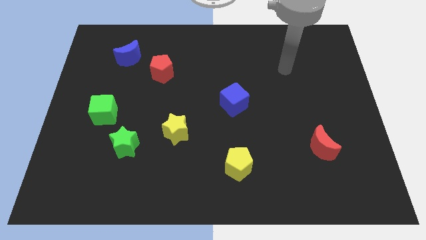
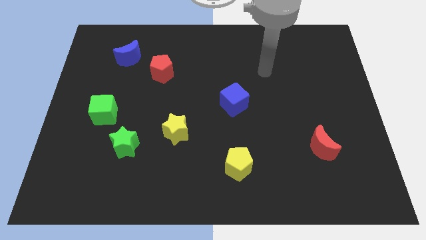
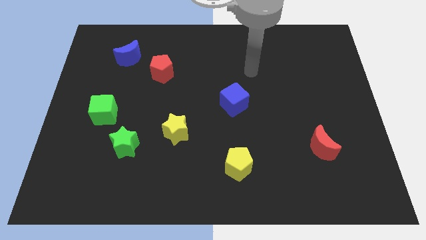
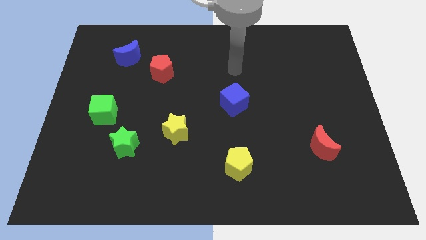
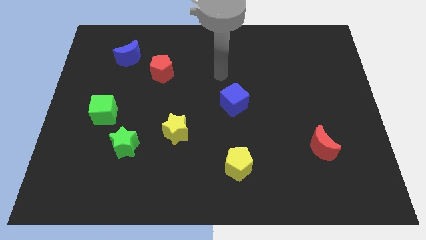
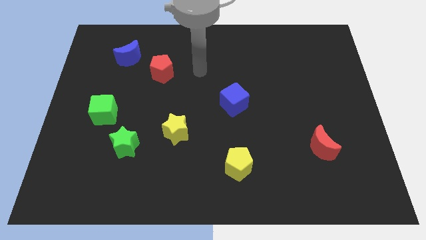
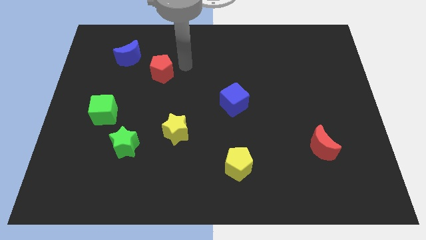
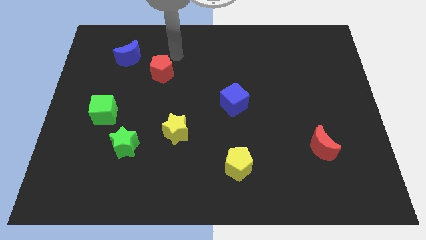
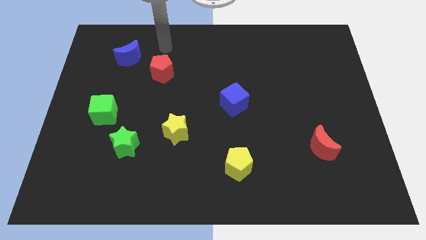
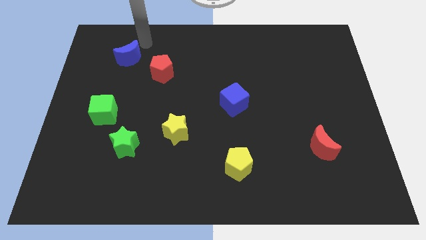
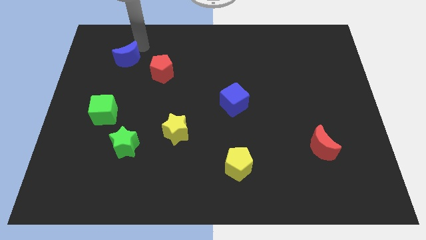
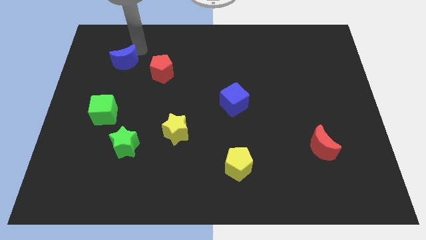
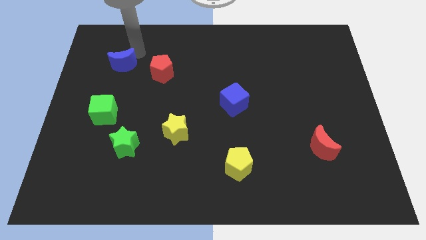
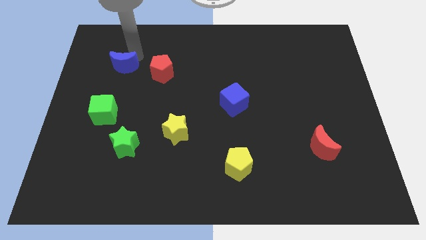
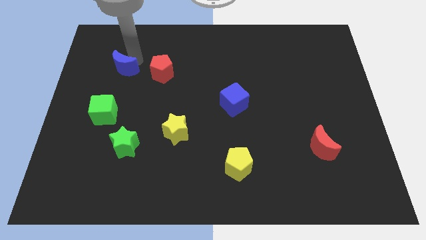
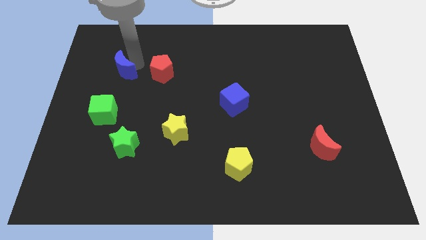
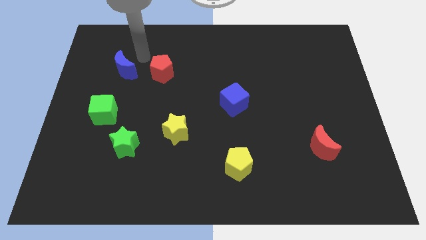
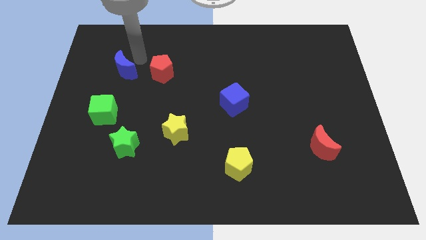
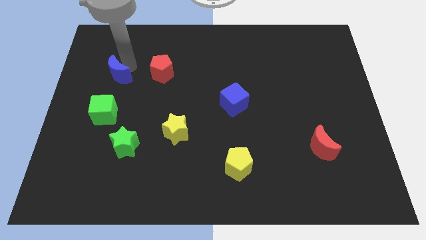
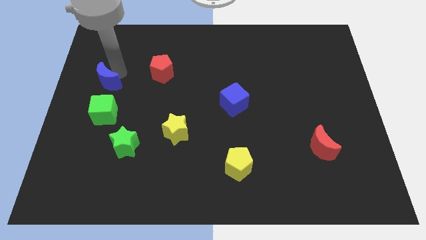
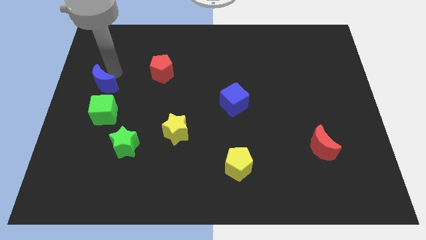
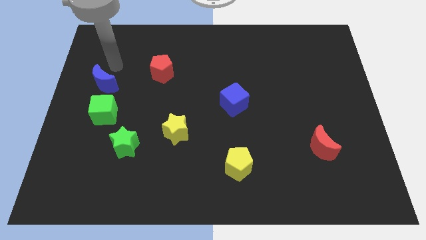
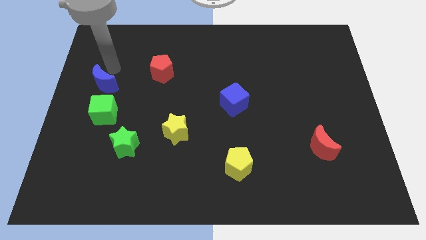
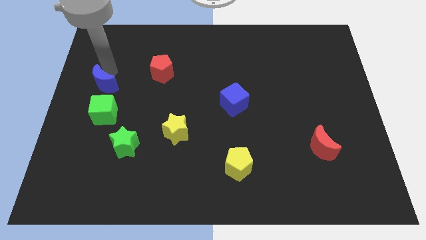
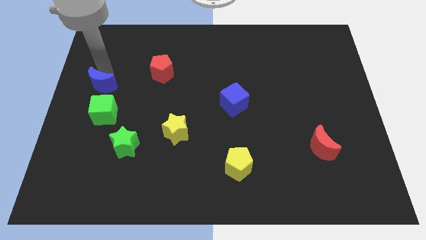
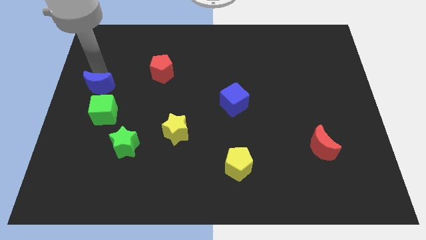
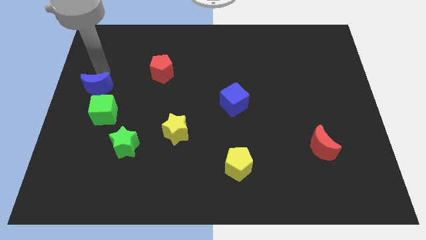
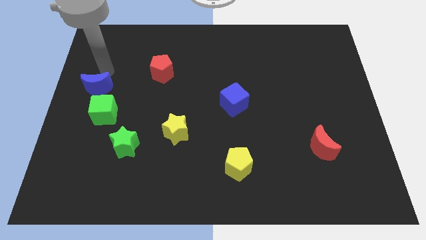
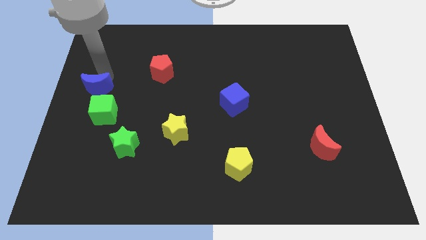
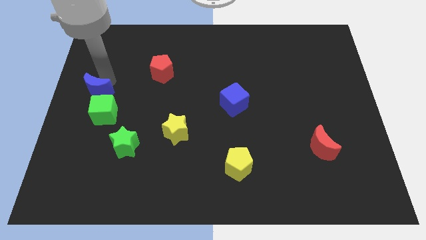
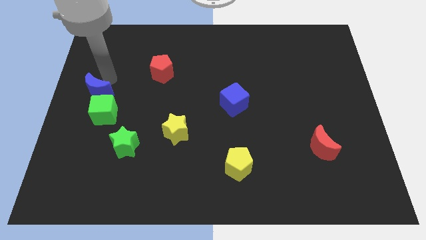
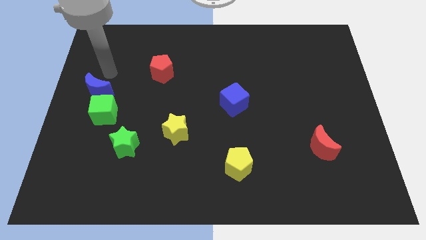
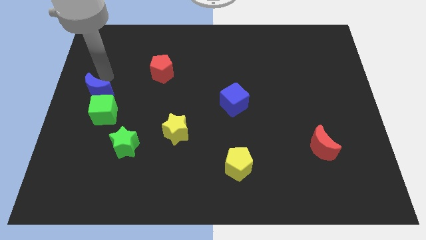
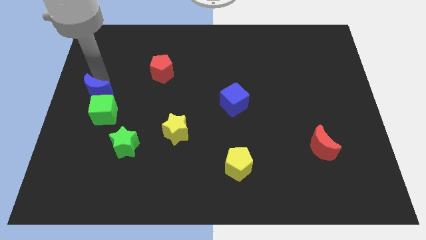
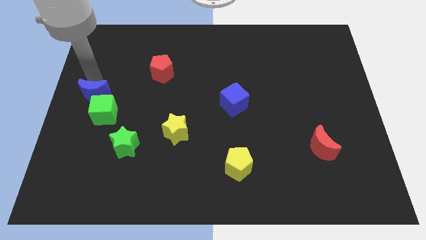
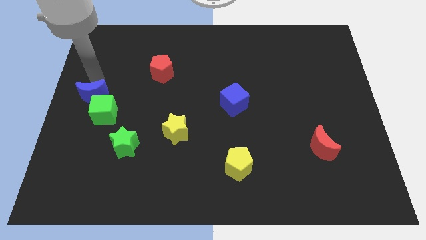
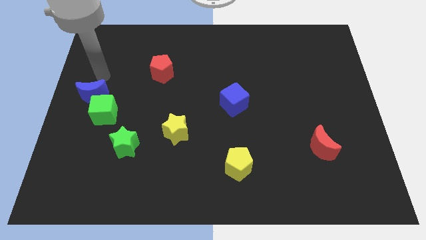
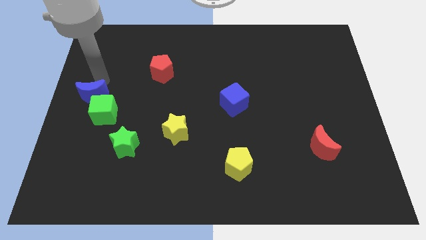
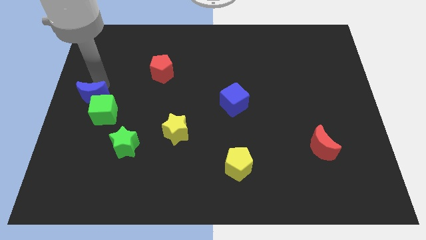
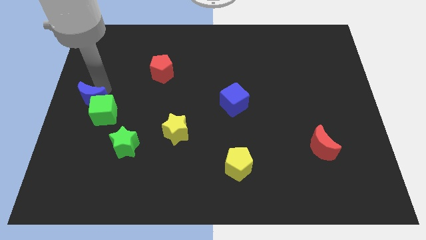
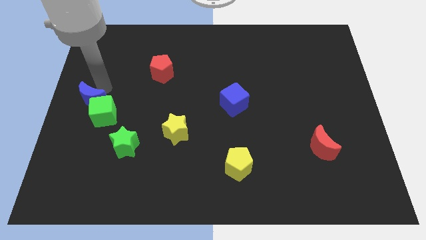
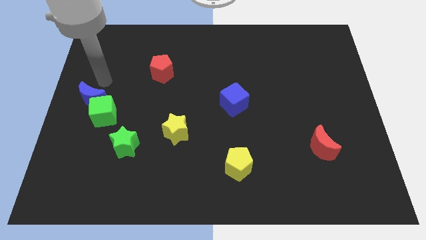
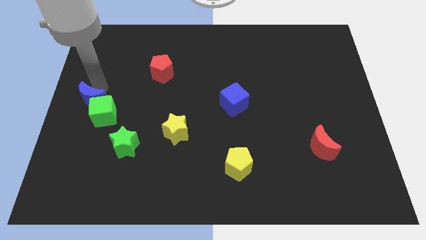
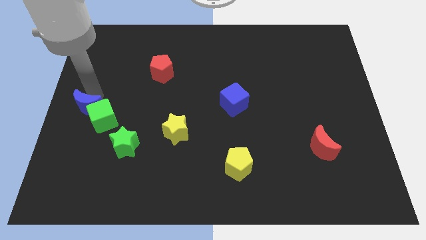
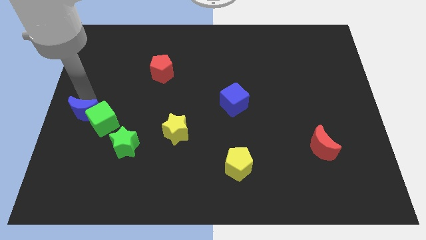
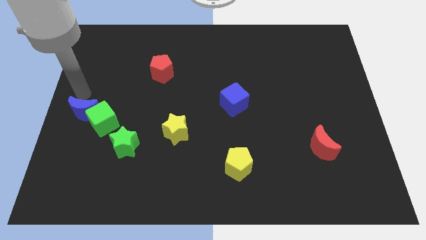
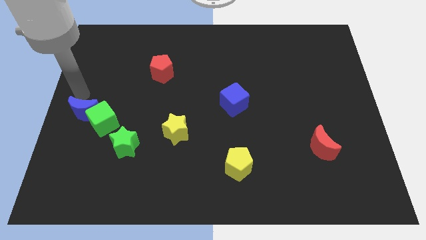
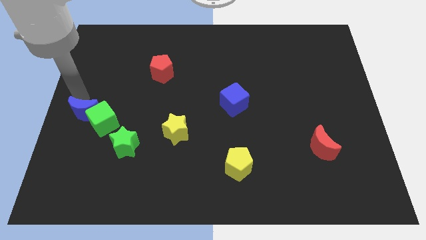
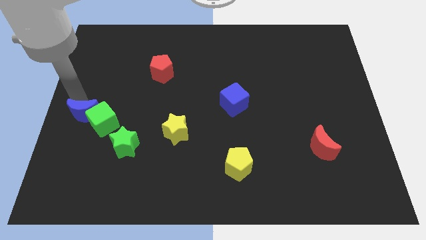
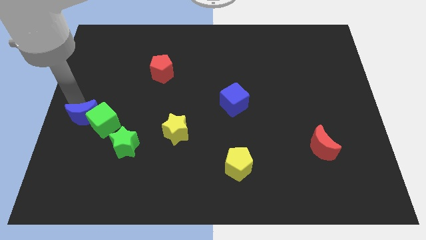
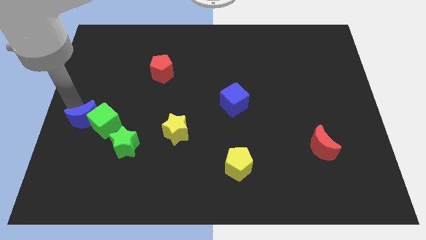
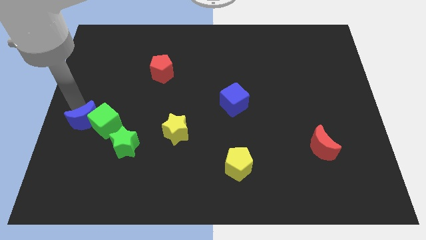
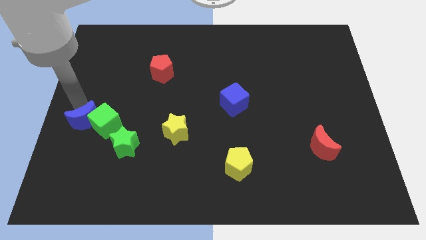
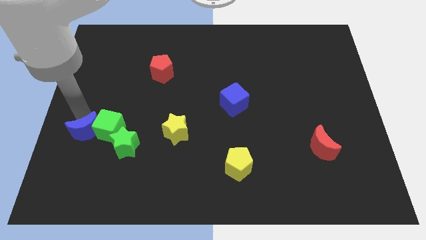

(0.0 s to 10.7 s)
move the blue moon downwards

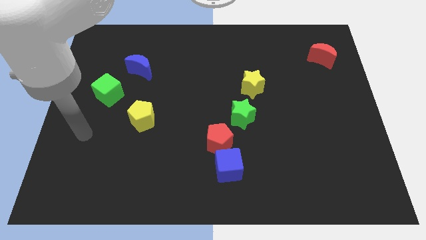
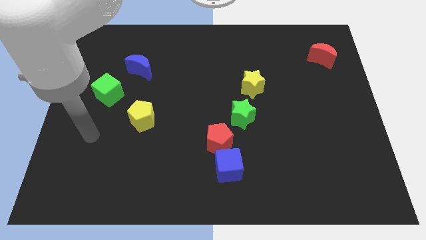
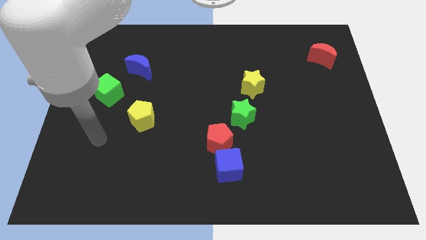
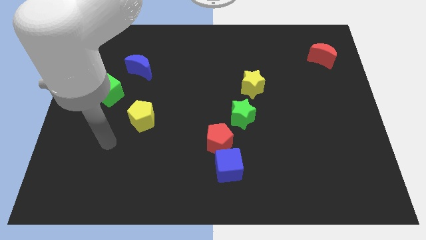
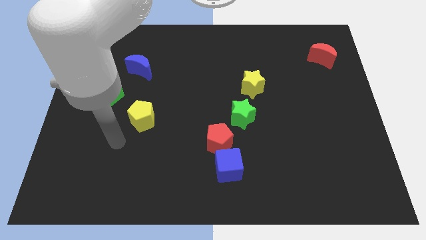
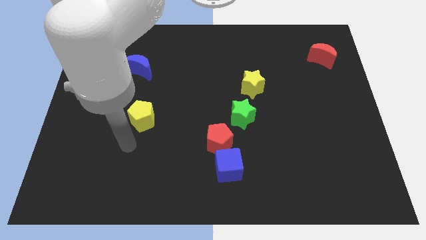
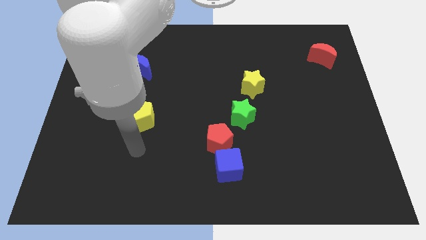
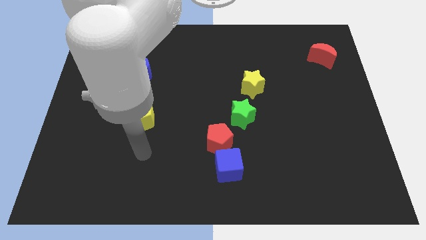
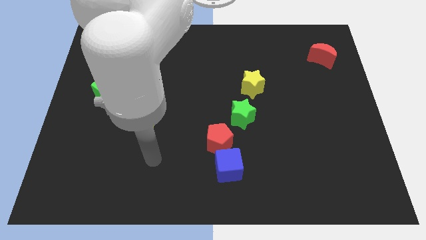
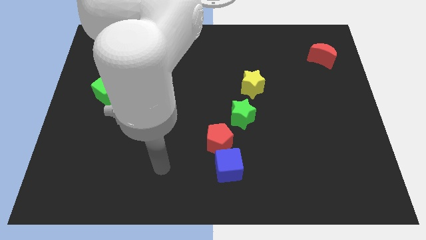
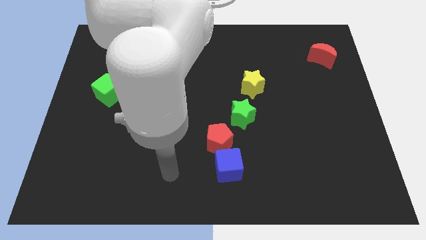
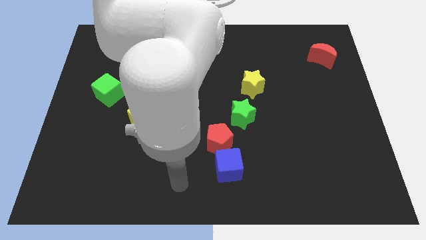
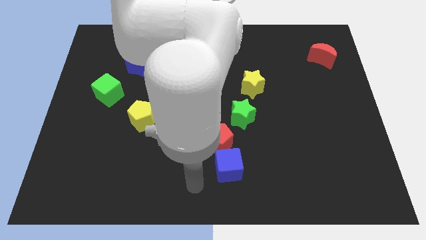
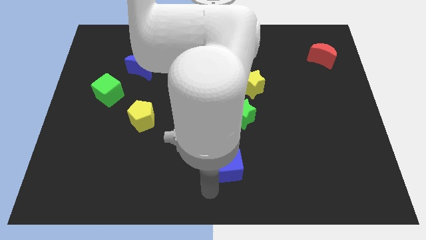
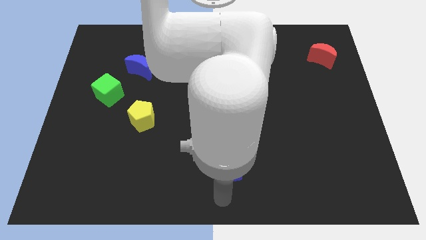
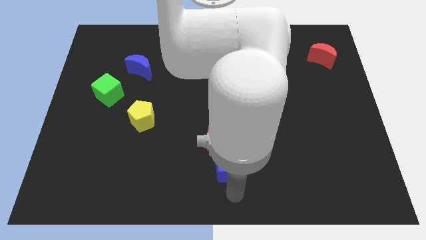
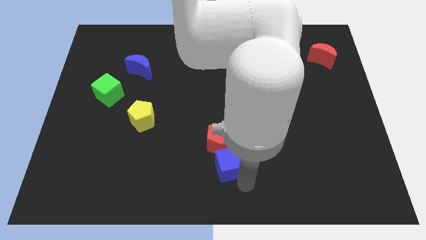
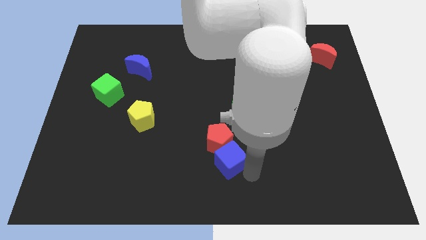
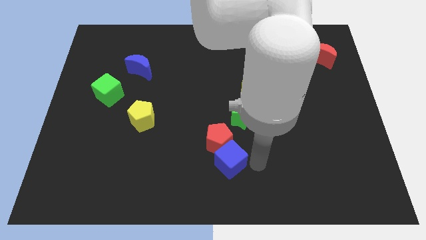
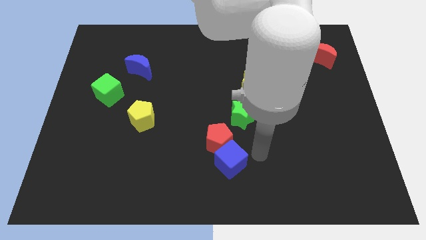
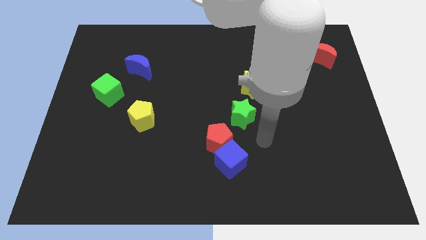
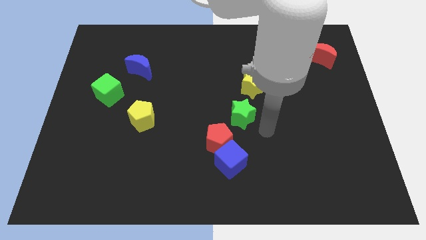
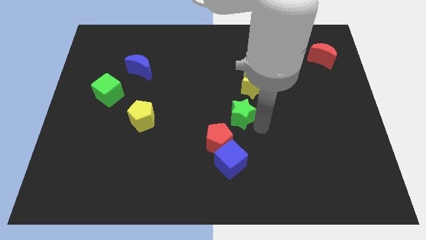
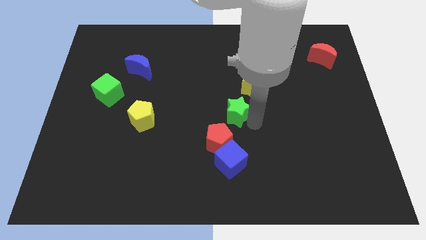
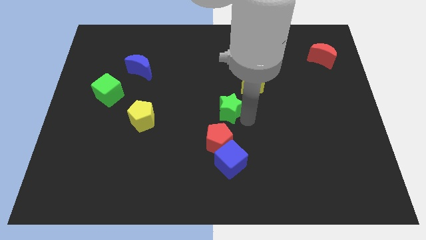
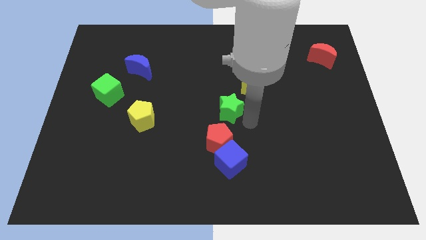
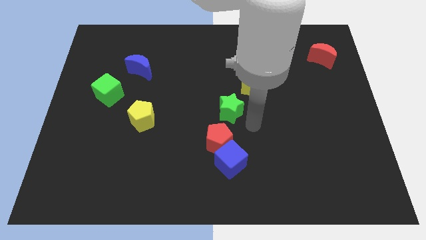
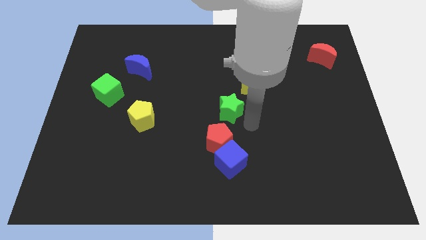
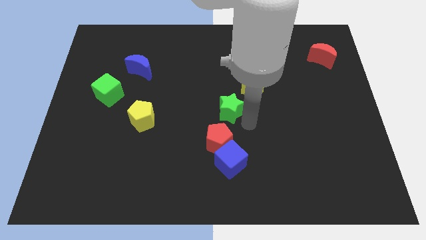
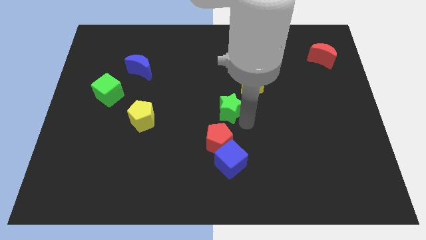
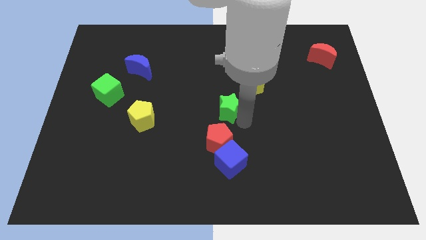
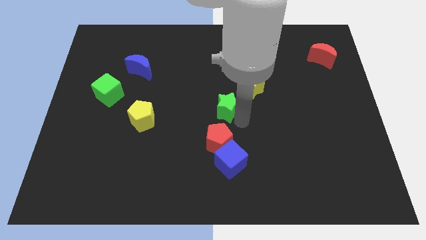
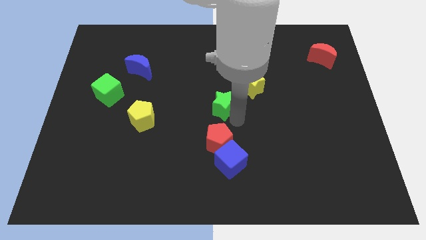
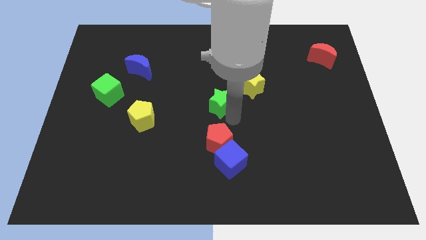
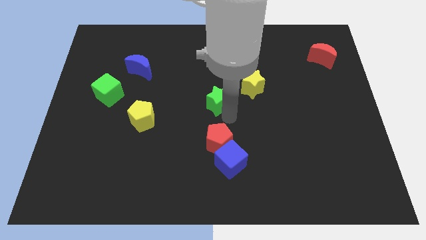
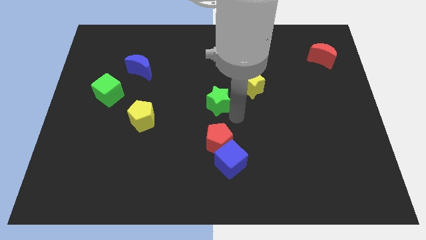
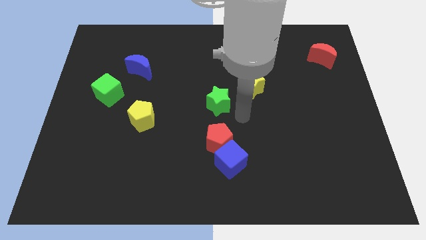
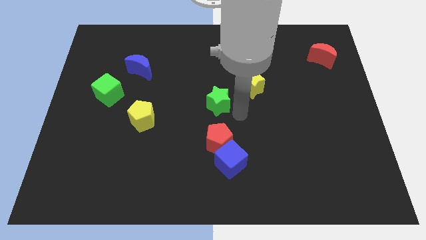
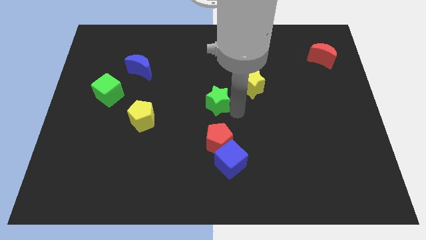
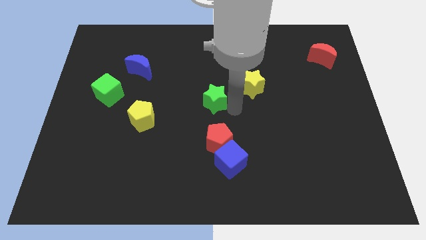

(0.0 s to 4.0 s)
slightly move the green star upwards and then left
